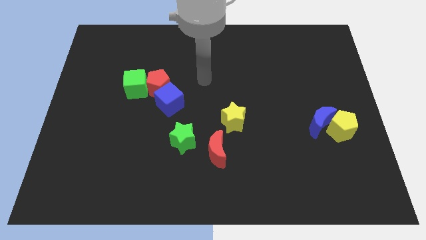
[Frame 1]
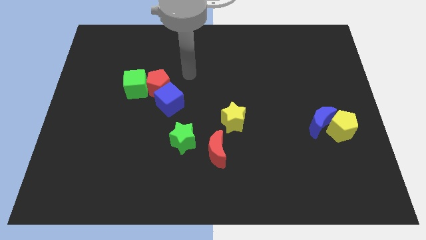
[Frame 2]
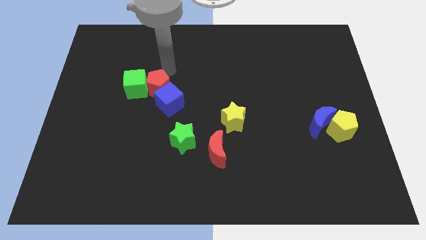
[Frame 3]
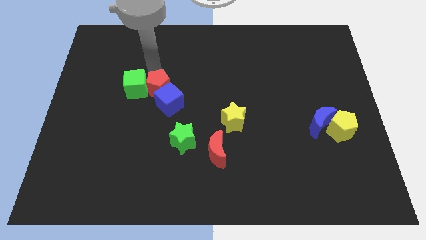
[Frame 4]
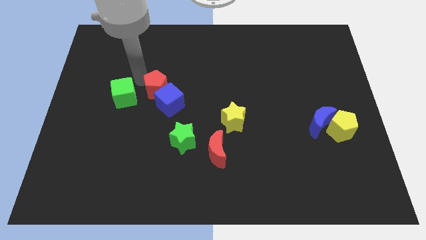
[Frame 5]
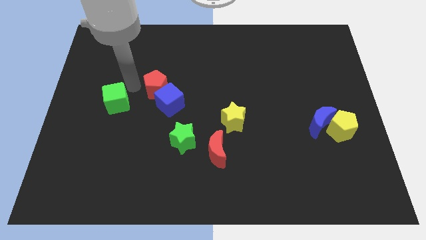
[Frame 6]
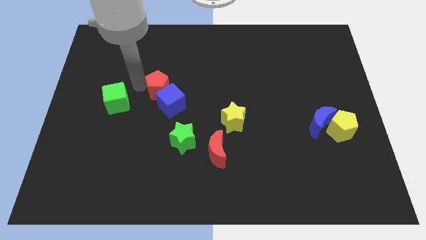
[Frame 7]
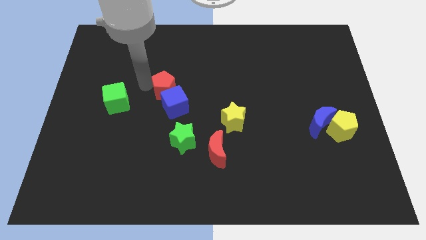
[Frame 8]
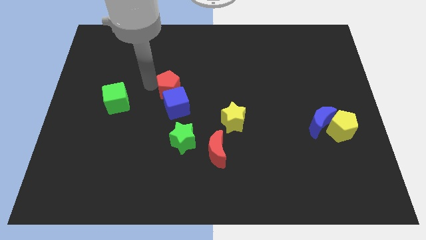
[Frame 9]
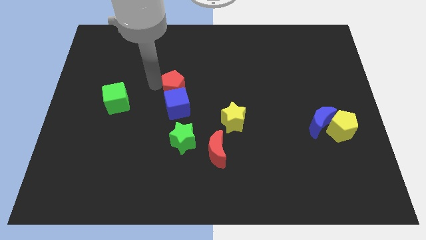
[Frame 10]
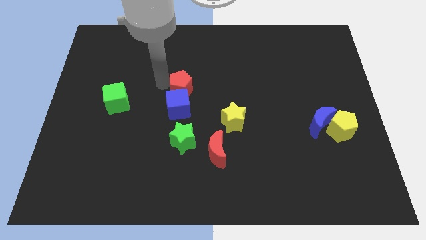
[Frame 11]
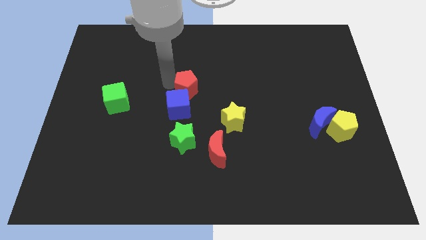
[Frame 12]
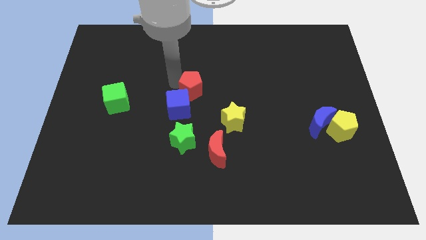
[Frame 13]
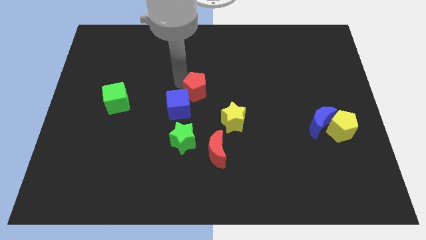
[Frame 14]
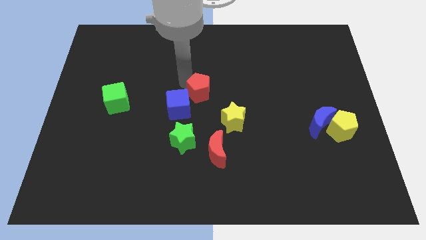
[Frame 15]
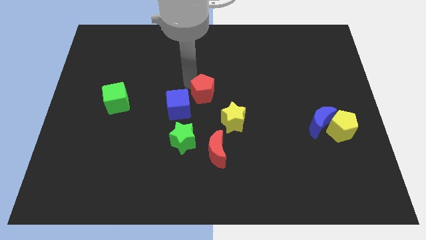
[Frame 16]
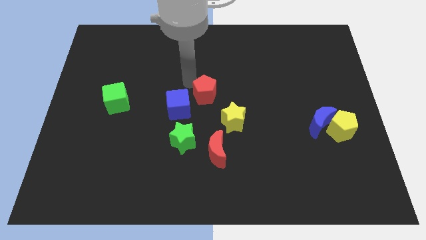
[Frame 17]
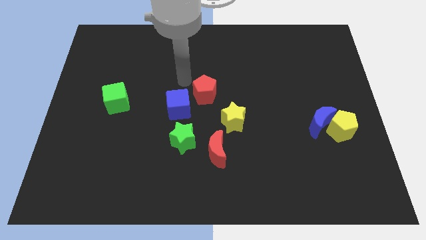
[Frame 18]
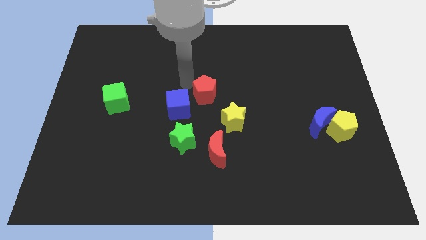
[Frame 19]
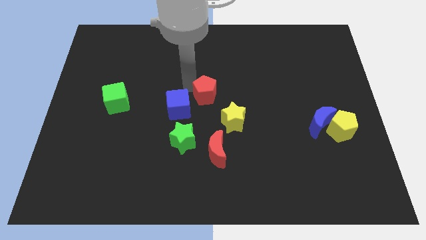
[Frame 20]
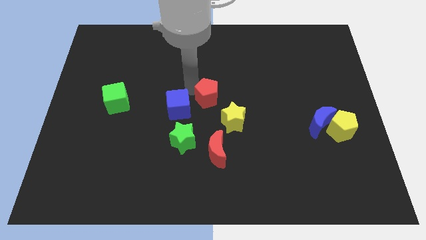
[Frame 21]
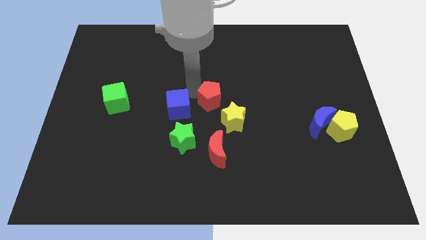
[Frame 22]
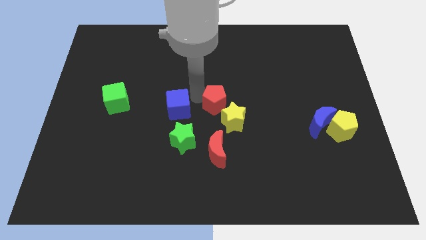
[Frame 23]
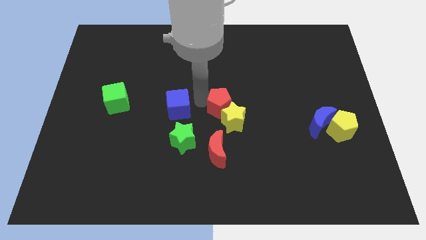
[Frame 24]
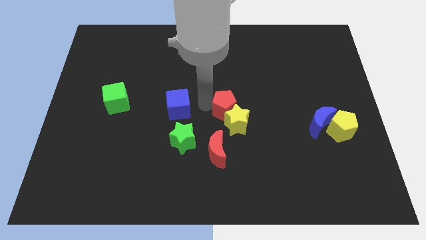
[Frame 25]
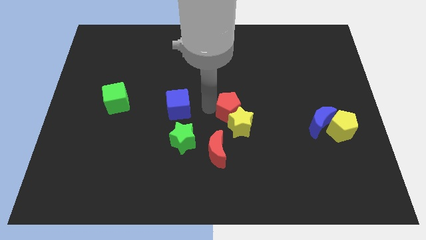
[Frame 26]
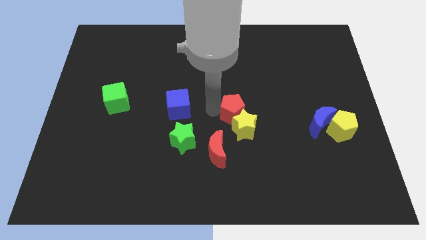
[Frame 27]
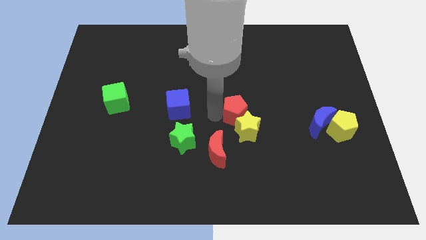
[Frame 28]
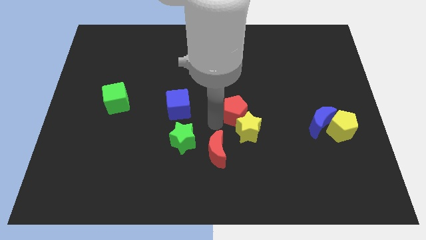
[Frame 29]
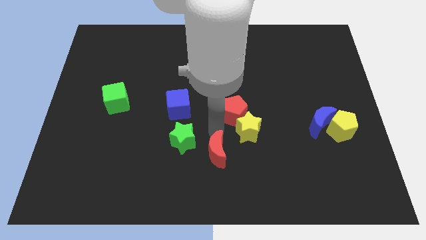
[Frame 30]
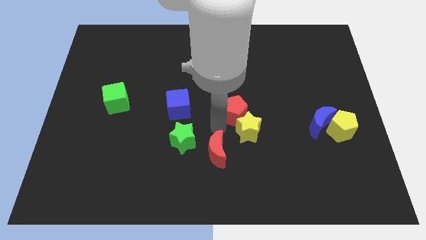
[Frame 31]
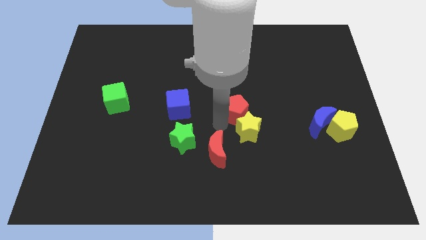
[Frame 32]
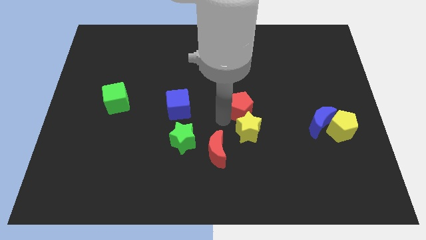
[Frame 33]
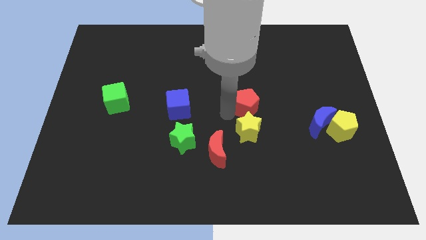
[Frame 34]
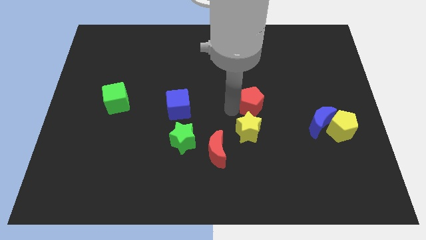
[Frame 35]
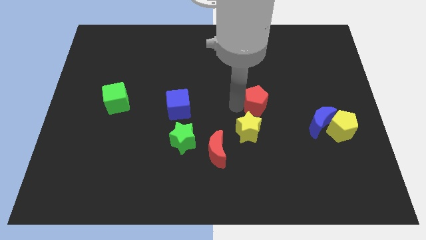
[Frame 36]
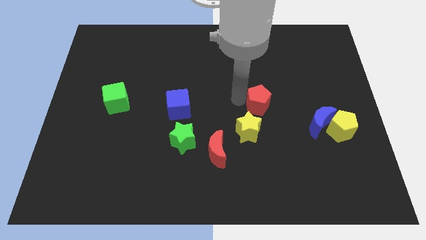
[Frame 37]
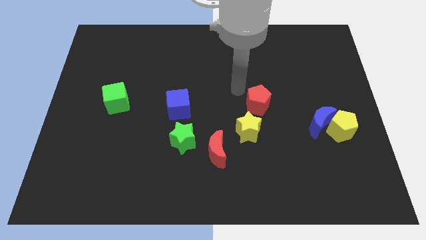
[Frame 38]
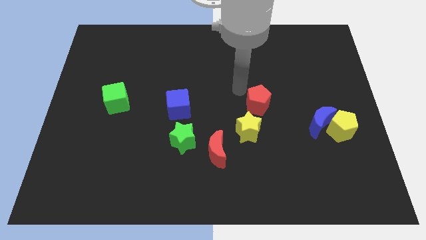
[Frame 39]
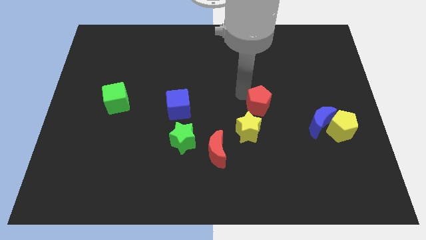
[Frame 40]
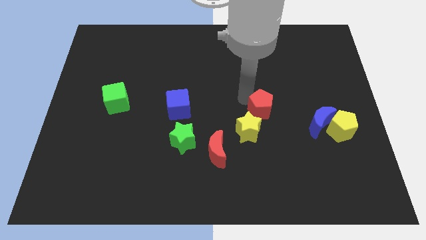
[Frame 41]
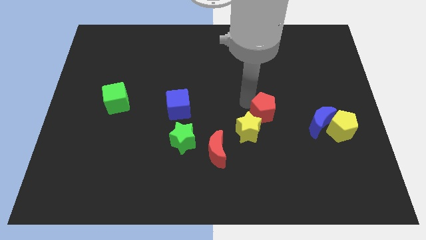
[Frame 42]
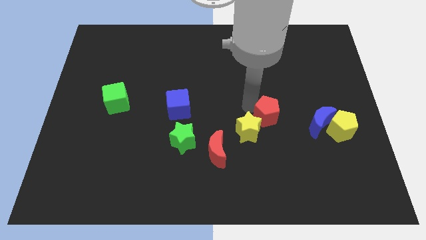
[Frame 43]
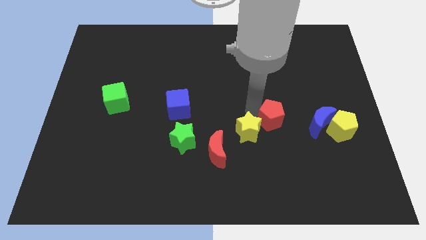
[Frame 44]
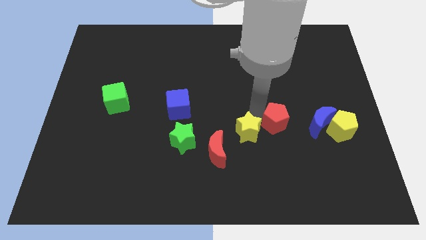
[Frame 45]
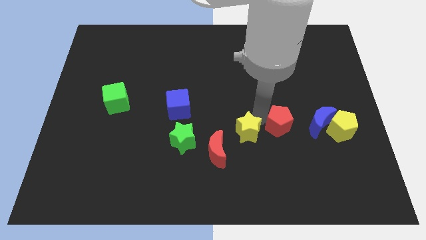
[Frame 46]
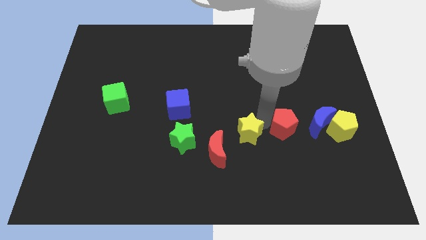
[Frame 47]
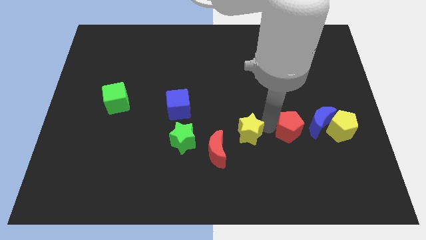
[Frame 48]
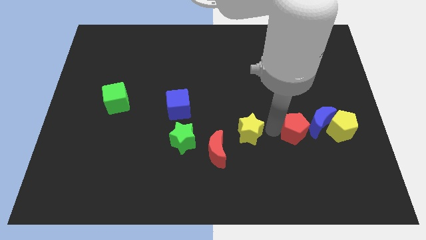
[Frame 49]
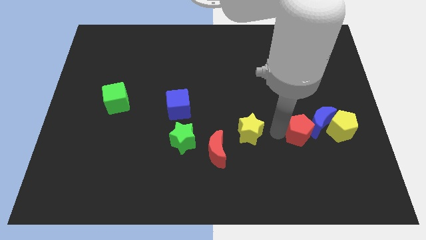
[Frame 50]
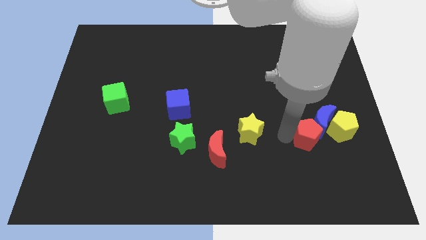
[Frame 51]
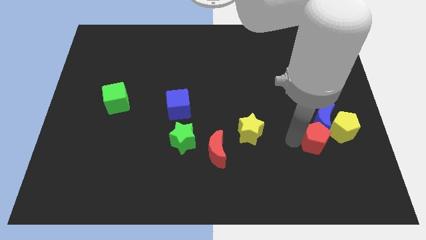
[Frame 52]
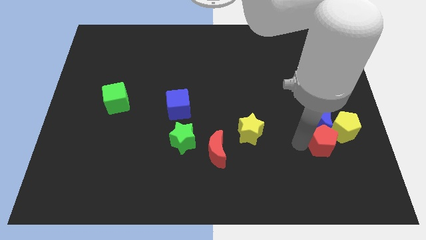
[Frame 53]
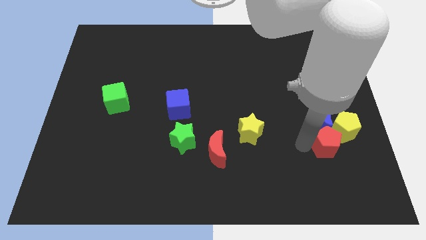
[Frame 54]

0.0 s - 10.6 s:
push the red pentagon to the yellow pentagon

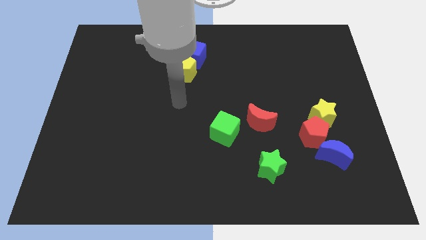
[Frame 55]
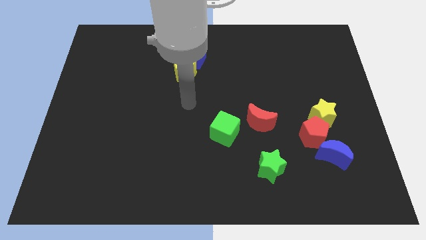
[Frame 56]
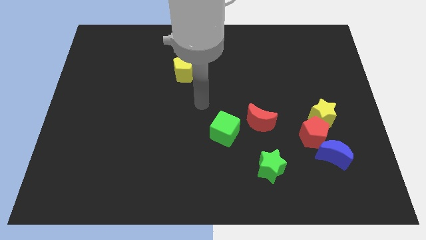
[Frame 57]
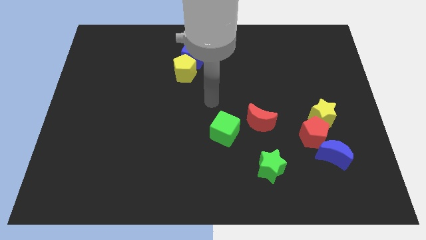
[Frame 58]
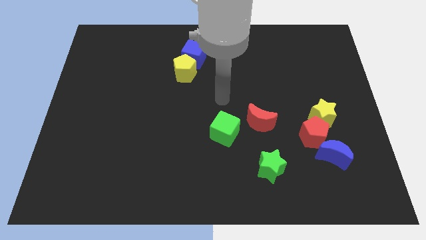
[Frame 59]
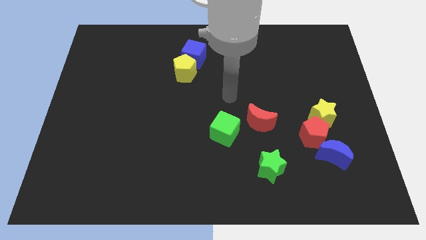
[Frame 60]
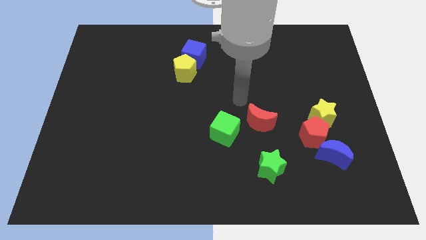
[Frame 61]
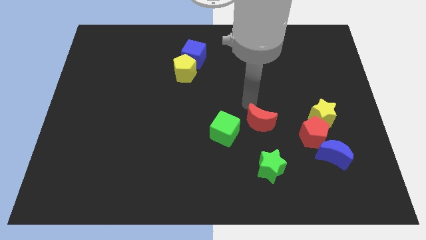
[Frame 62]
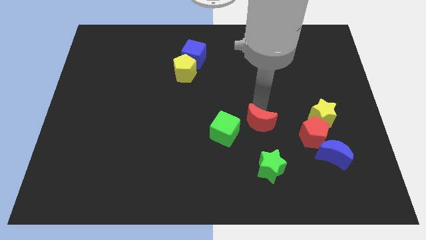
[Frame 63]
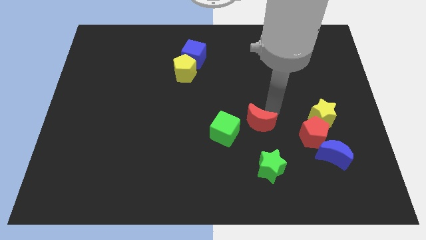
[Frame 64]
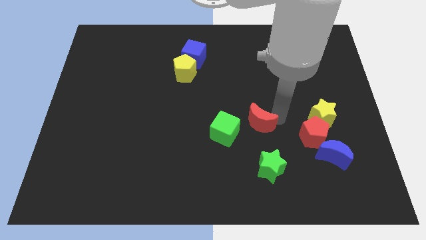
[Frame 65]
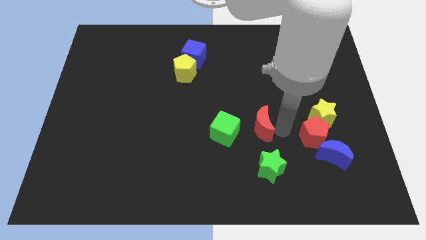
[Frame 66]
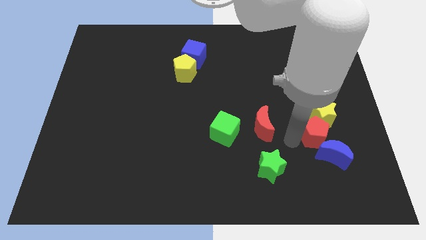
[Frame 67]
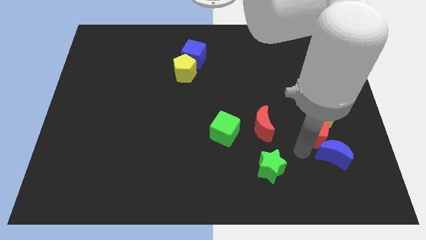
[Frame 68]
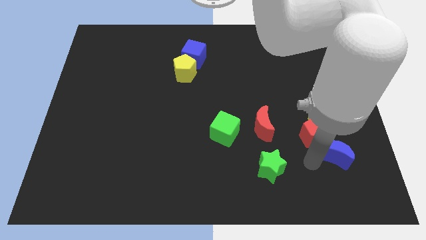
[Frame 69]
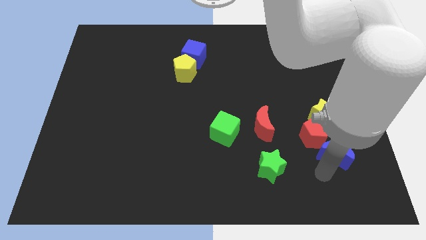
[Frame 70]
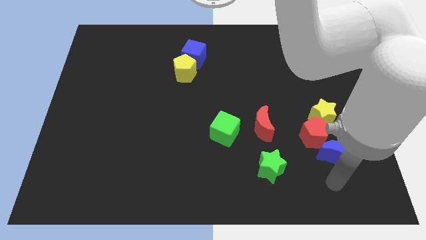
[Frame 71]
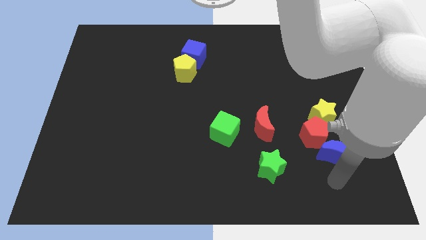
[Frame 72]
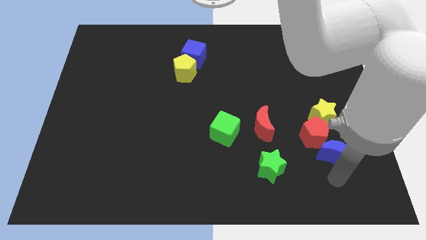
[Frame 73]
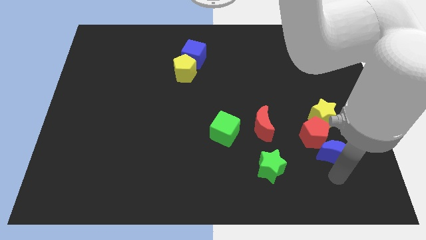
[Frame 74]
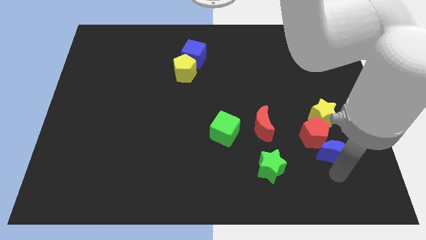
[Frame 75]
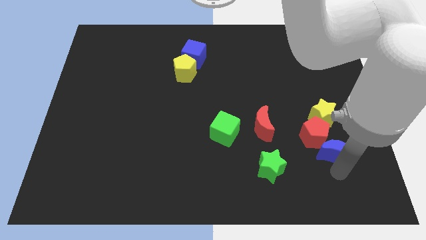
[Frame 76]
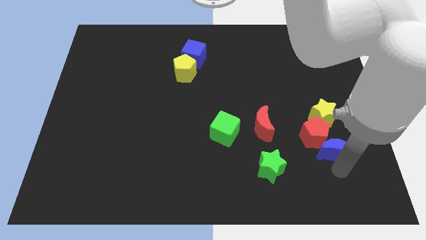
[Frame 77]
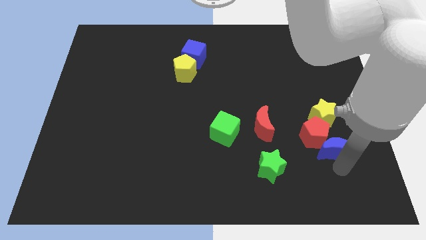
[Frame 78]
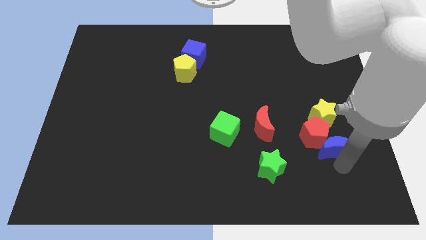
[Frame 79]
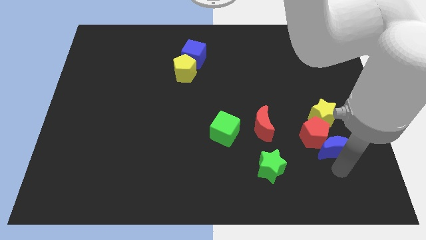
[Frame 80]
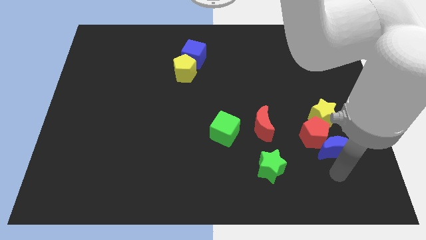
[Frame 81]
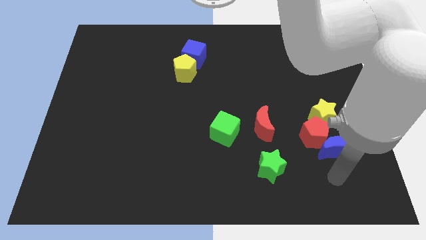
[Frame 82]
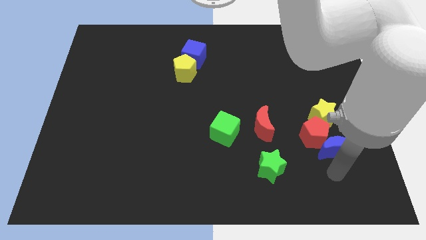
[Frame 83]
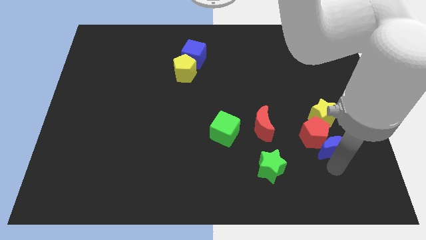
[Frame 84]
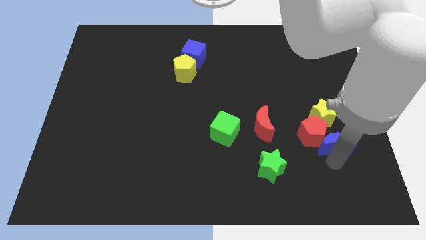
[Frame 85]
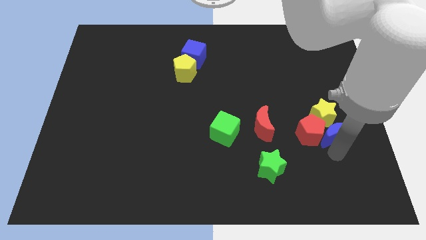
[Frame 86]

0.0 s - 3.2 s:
move the blue moon to the yellow star
